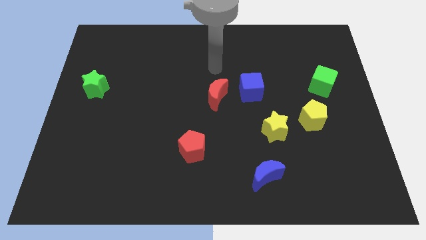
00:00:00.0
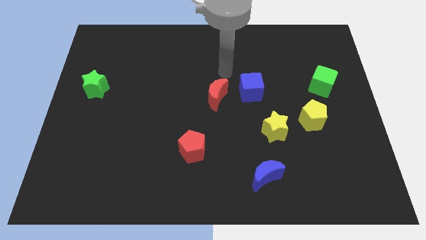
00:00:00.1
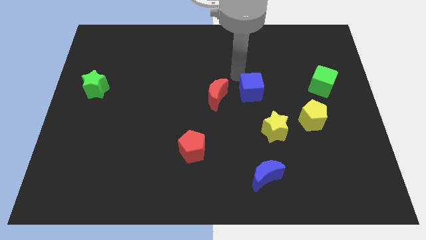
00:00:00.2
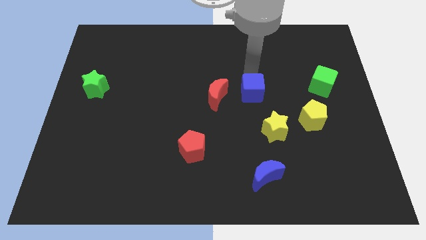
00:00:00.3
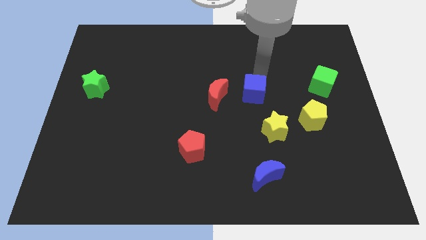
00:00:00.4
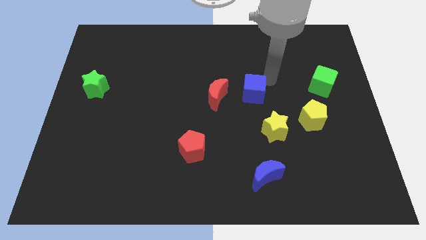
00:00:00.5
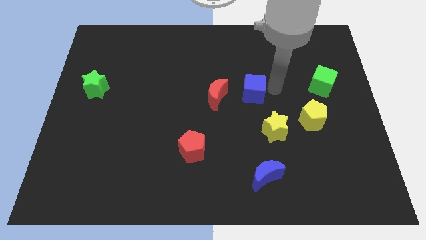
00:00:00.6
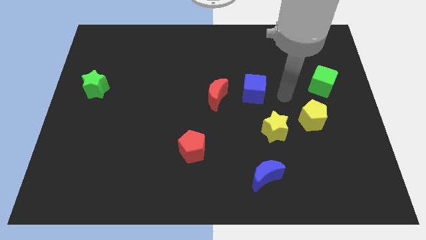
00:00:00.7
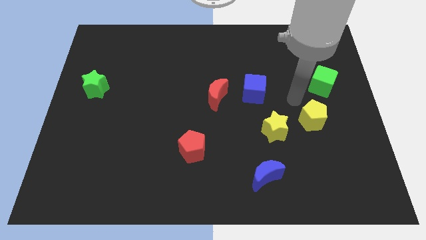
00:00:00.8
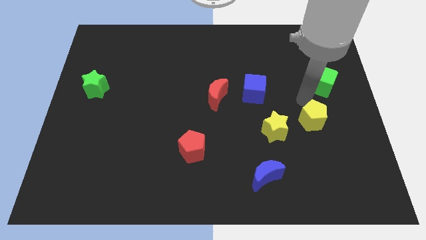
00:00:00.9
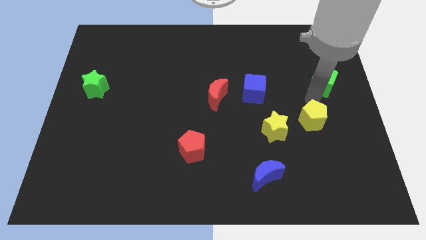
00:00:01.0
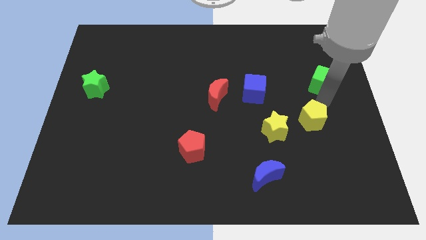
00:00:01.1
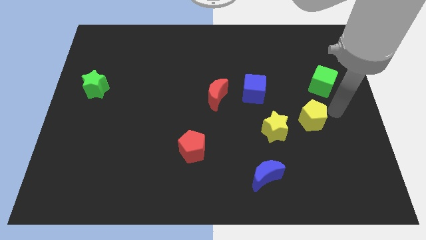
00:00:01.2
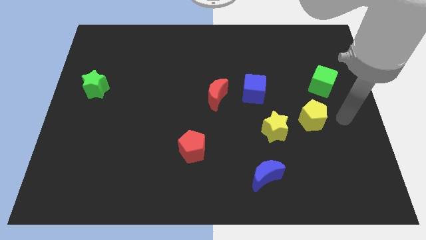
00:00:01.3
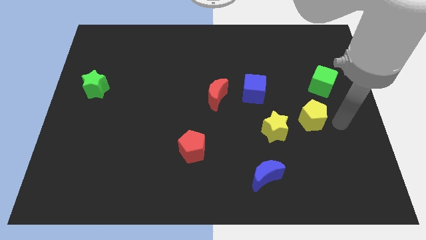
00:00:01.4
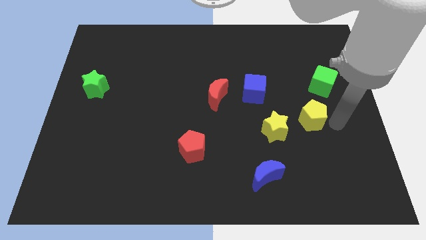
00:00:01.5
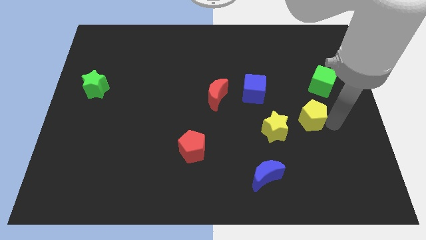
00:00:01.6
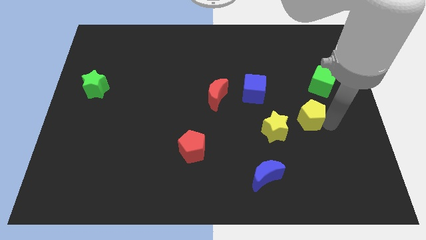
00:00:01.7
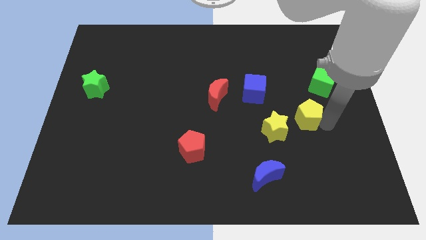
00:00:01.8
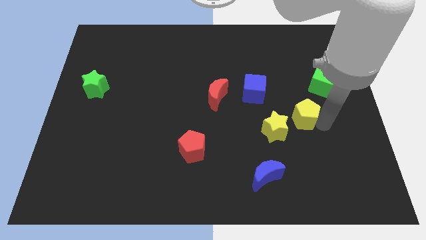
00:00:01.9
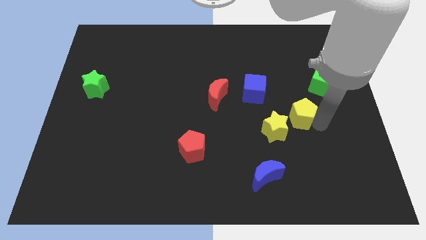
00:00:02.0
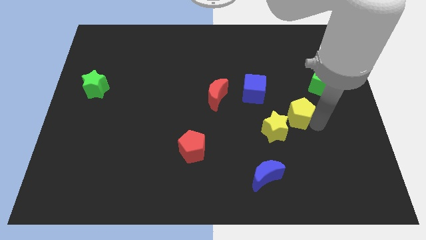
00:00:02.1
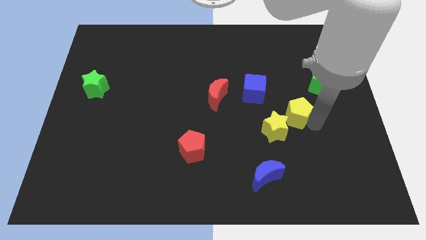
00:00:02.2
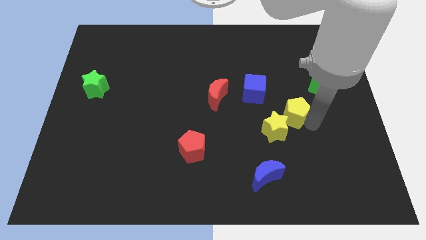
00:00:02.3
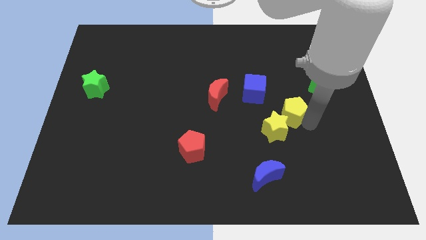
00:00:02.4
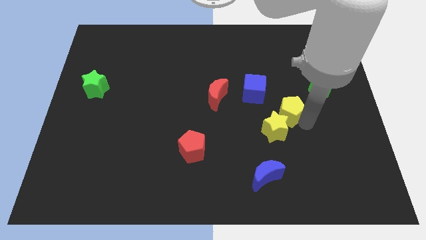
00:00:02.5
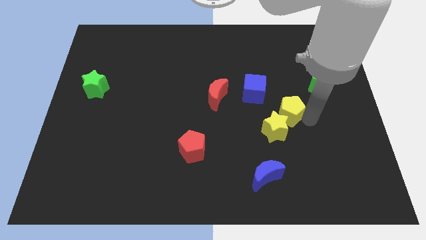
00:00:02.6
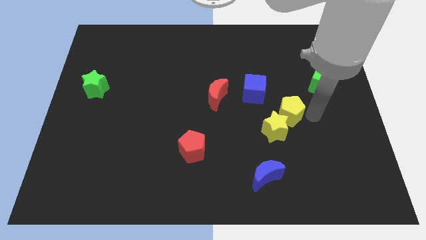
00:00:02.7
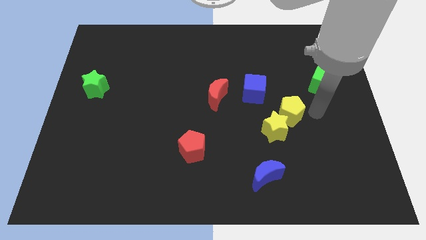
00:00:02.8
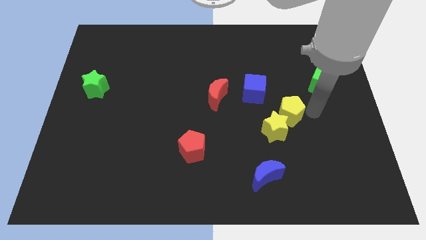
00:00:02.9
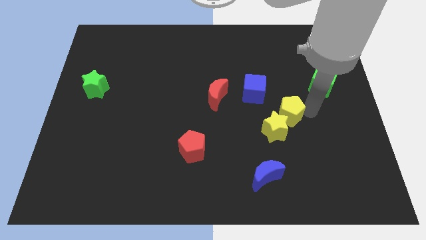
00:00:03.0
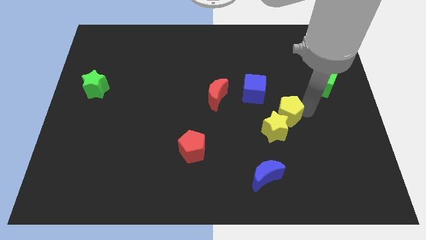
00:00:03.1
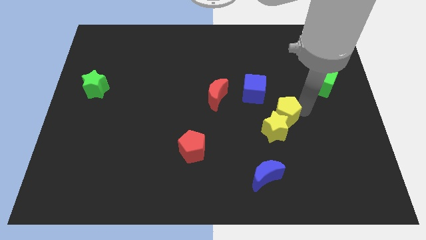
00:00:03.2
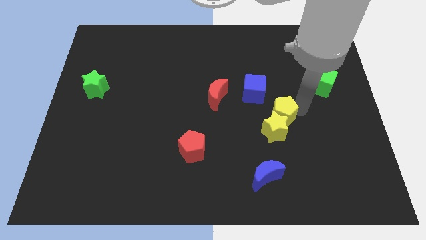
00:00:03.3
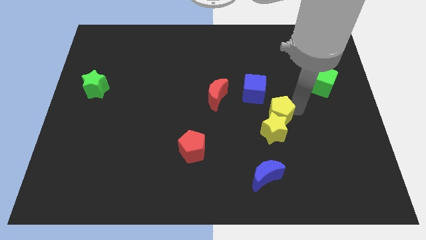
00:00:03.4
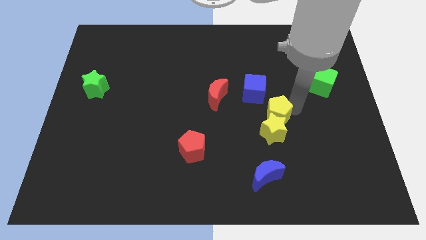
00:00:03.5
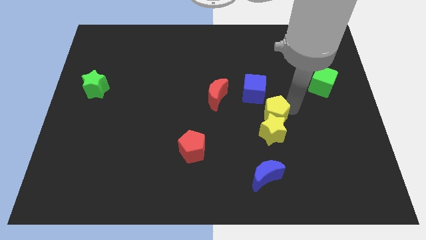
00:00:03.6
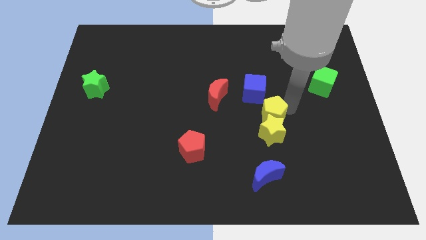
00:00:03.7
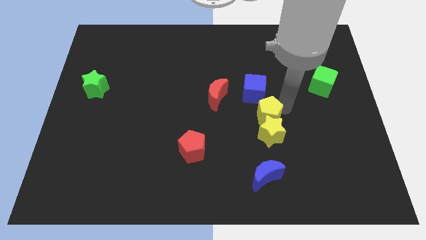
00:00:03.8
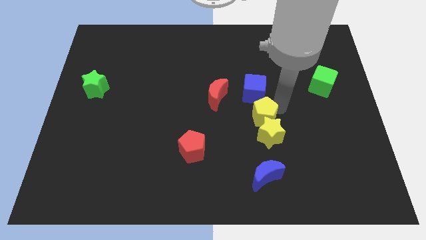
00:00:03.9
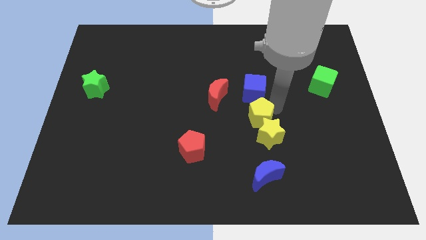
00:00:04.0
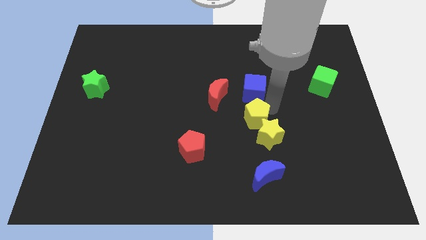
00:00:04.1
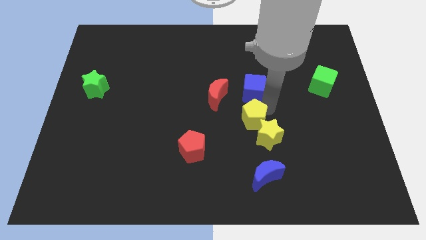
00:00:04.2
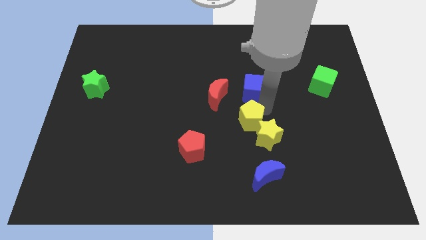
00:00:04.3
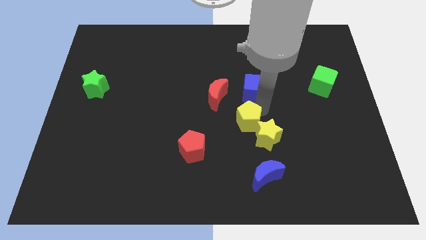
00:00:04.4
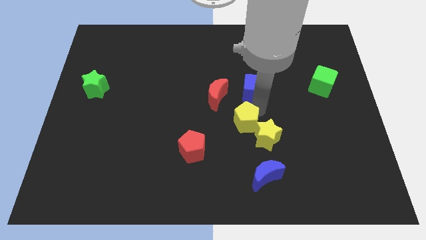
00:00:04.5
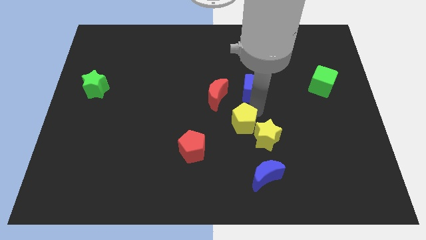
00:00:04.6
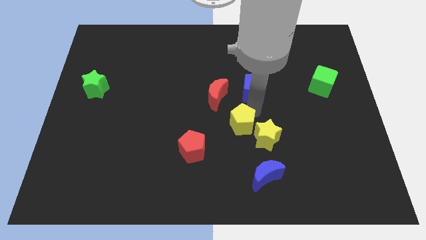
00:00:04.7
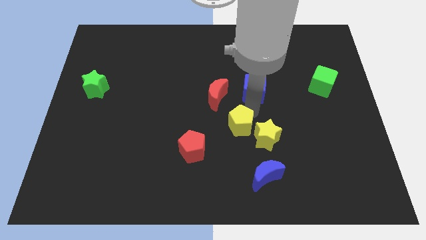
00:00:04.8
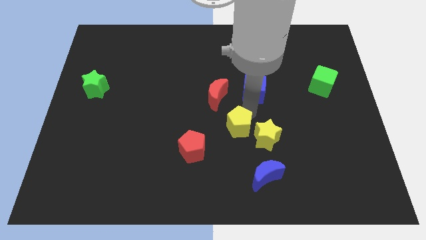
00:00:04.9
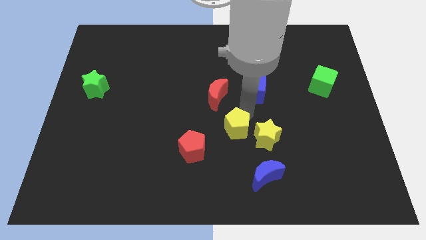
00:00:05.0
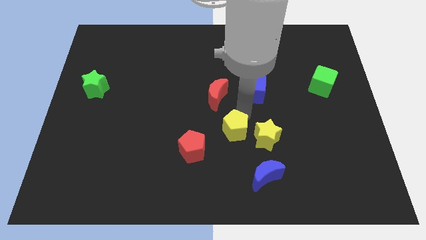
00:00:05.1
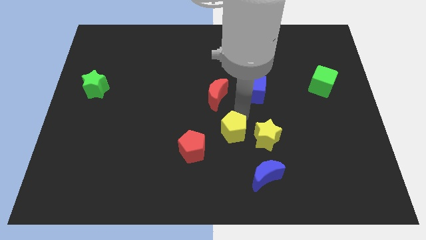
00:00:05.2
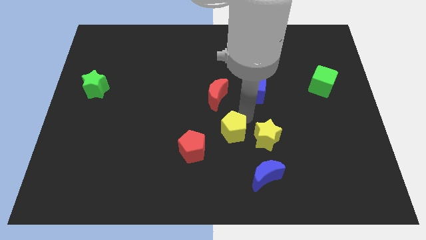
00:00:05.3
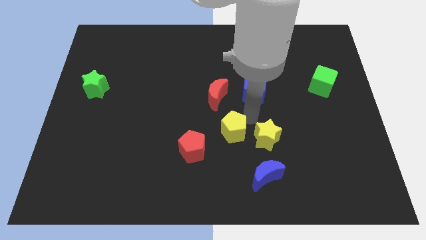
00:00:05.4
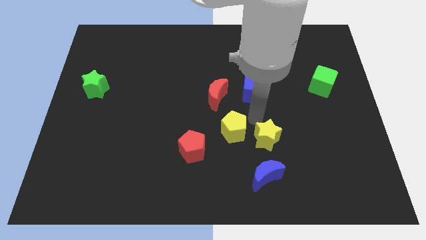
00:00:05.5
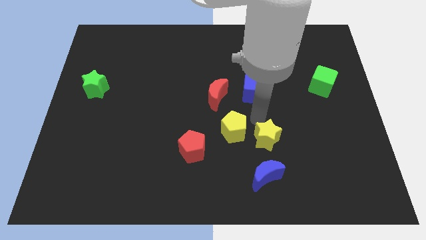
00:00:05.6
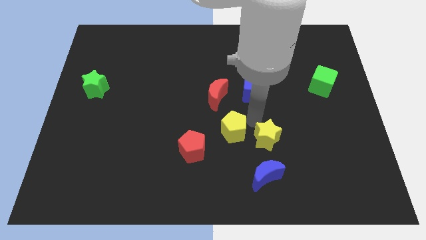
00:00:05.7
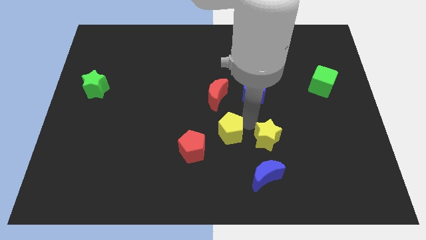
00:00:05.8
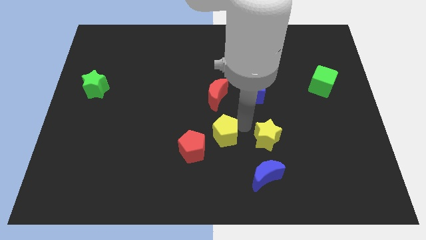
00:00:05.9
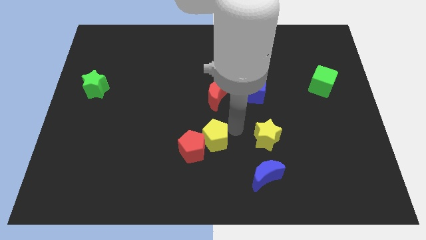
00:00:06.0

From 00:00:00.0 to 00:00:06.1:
slide the yellow pentagon towards the red pentagon

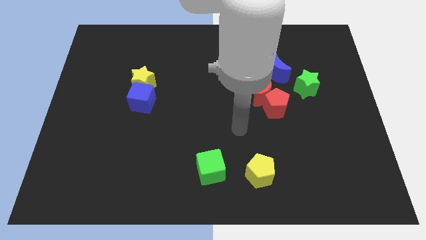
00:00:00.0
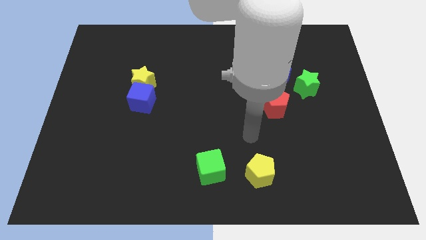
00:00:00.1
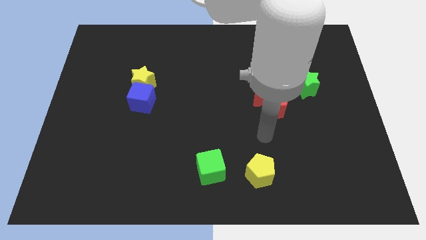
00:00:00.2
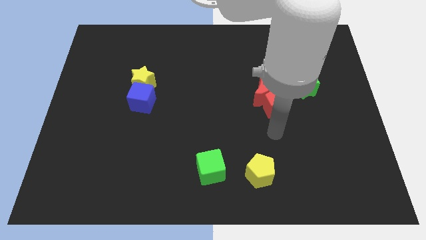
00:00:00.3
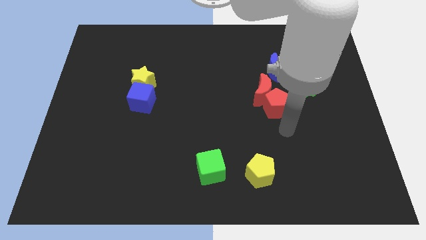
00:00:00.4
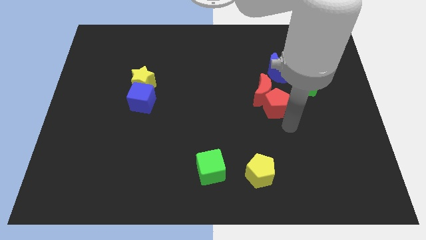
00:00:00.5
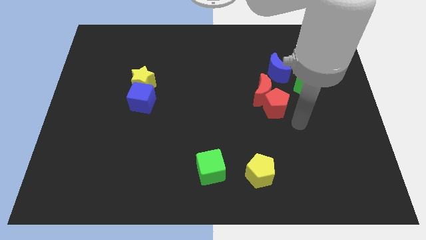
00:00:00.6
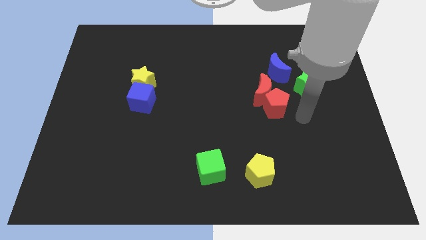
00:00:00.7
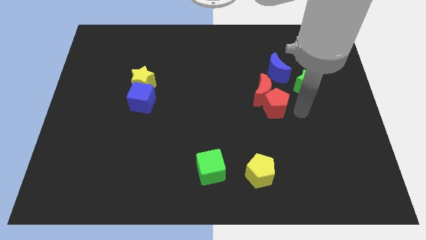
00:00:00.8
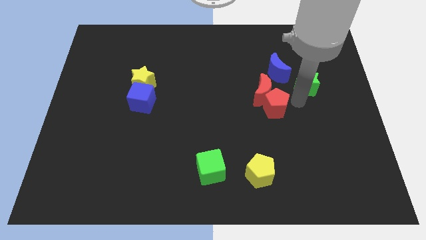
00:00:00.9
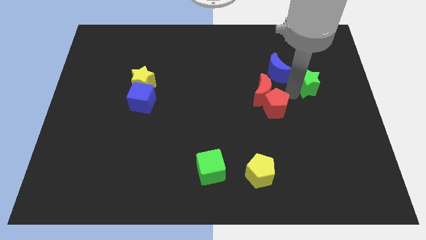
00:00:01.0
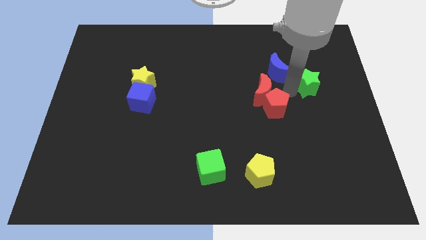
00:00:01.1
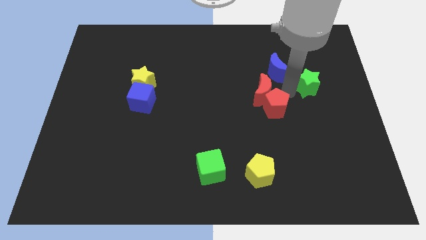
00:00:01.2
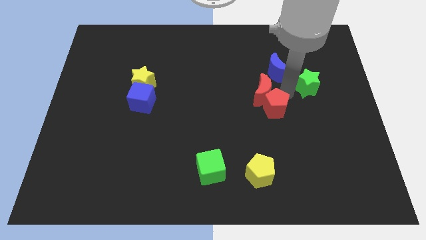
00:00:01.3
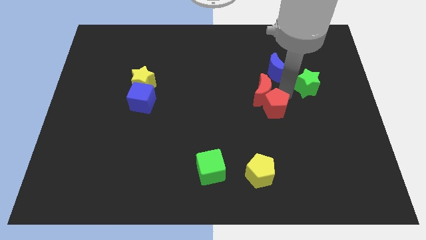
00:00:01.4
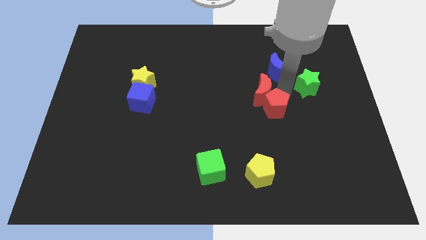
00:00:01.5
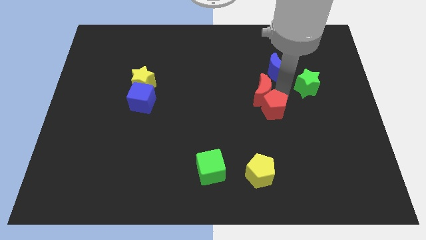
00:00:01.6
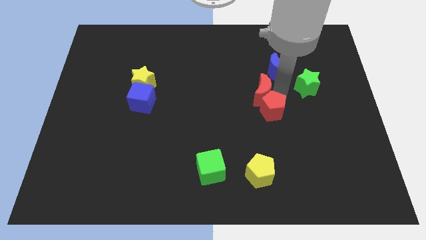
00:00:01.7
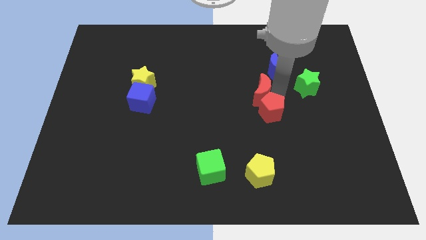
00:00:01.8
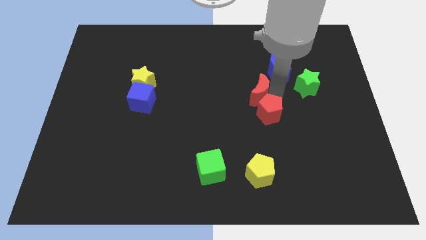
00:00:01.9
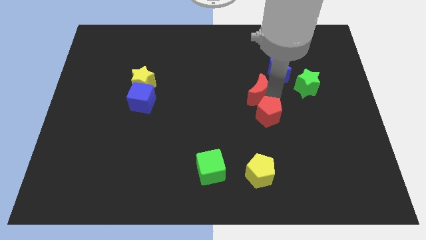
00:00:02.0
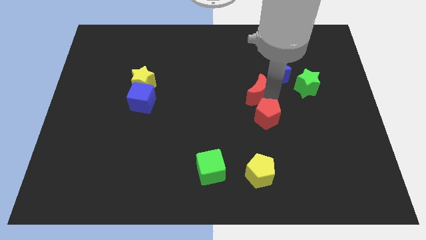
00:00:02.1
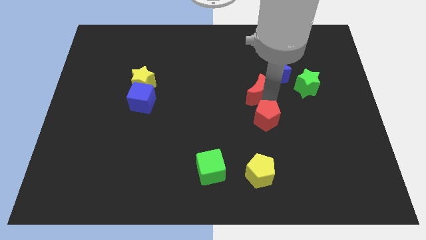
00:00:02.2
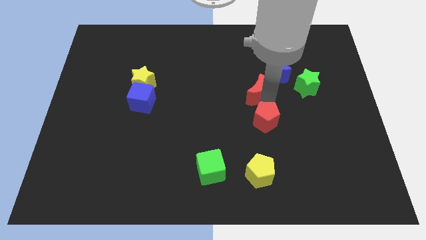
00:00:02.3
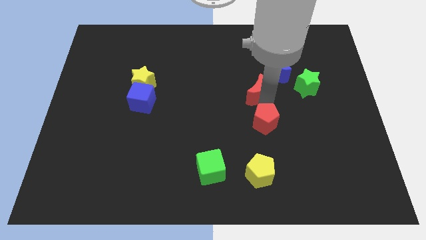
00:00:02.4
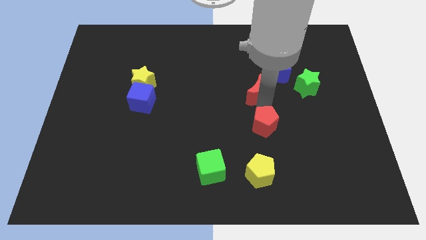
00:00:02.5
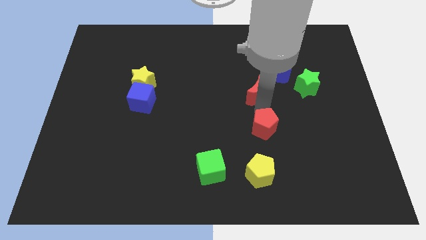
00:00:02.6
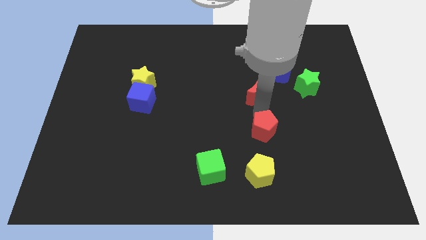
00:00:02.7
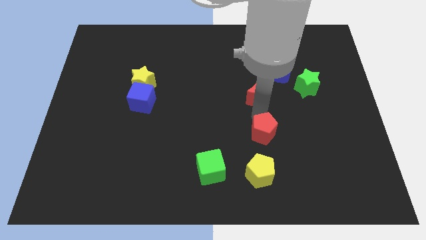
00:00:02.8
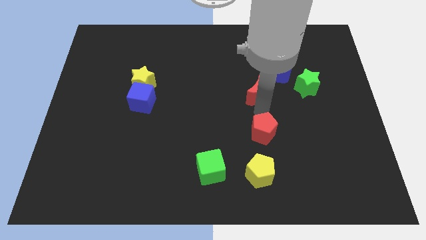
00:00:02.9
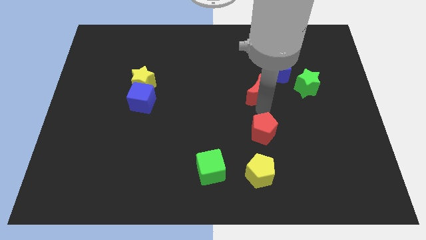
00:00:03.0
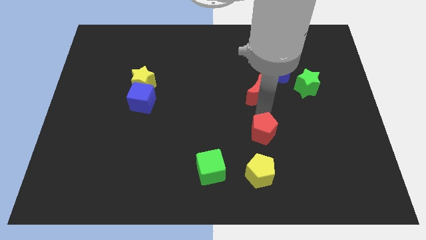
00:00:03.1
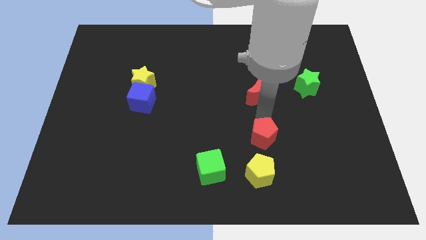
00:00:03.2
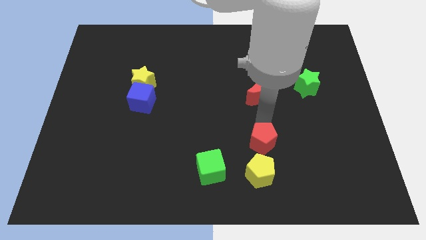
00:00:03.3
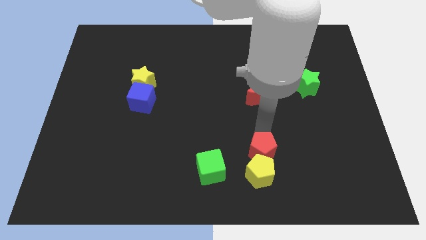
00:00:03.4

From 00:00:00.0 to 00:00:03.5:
put the red pentagon to the yellow pentagon
